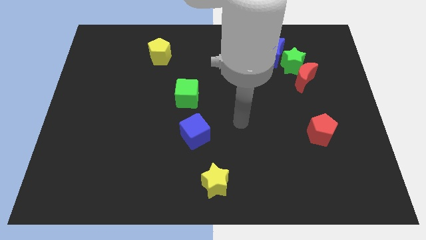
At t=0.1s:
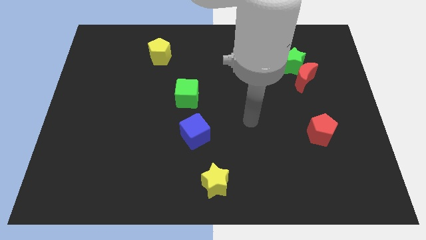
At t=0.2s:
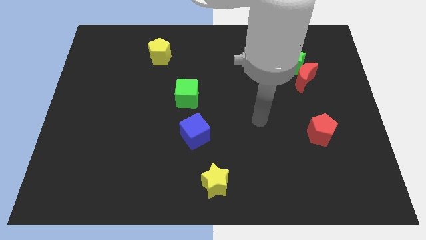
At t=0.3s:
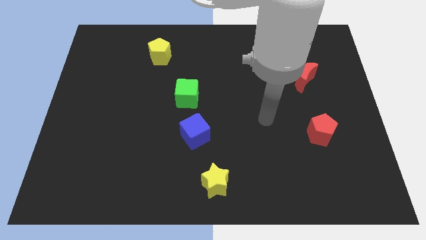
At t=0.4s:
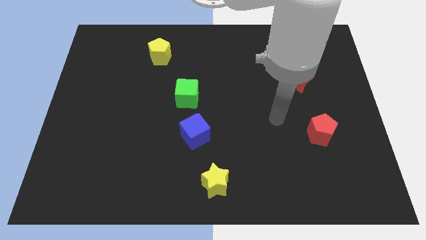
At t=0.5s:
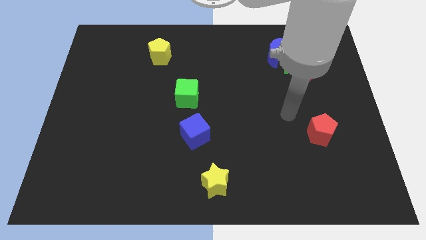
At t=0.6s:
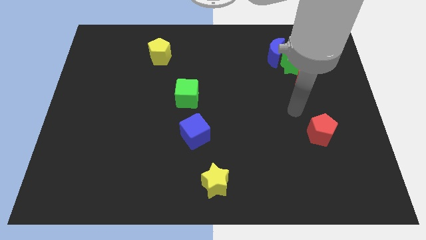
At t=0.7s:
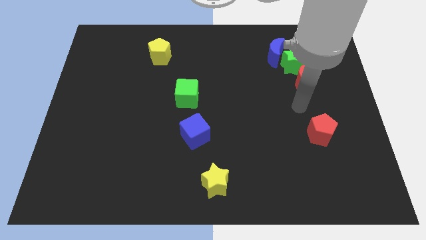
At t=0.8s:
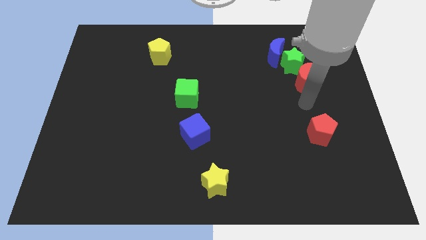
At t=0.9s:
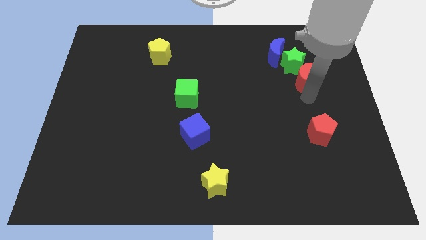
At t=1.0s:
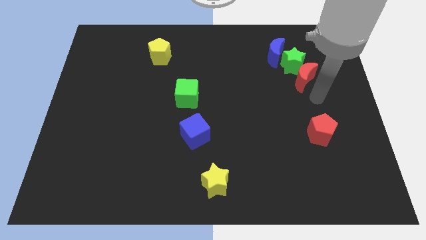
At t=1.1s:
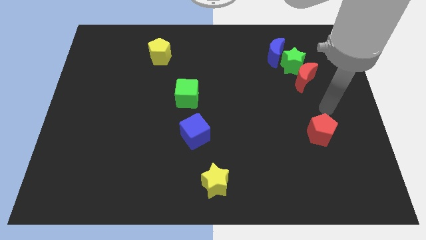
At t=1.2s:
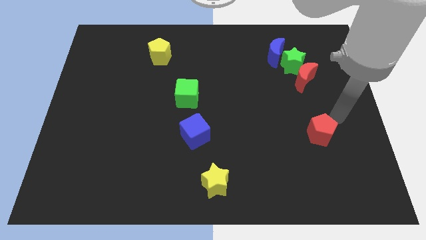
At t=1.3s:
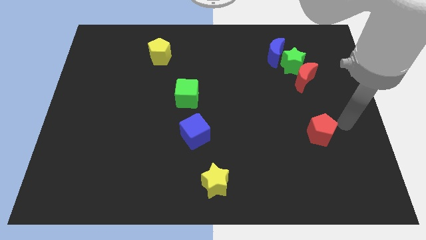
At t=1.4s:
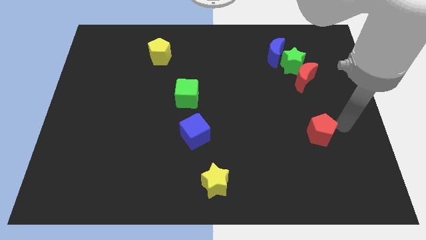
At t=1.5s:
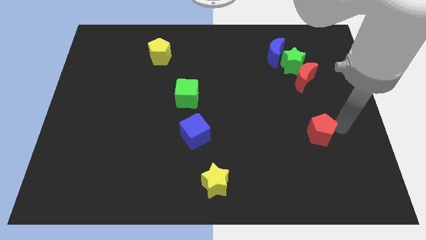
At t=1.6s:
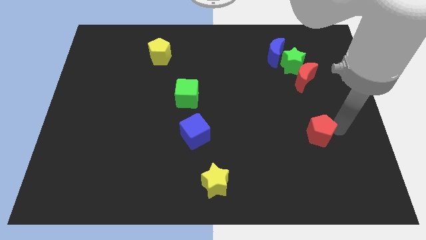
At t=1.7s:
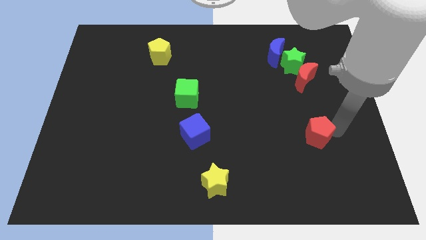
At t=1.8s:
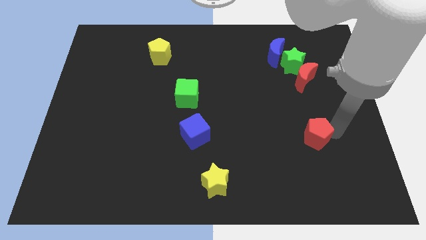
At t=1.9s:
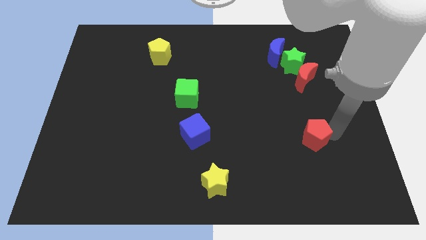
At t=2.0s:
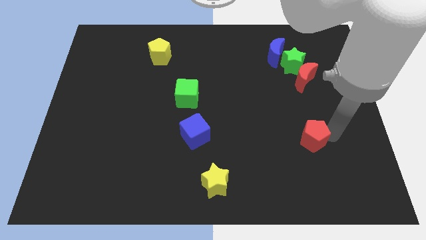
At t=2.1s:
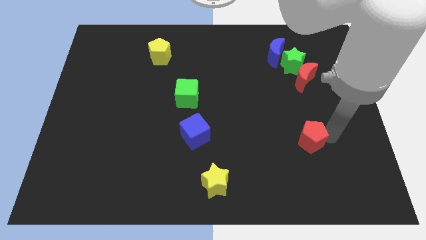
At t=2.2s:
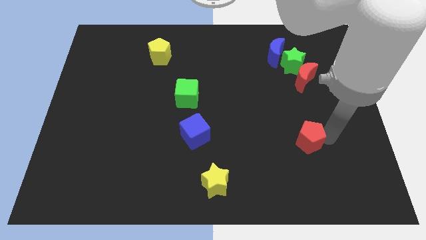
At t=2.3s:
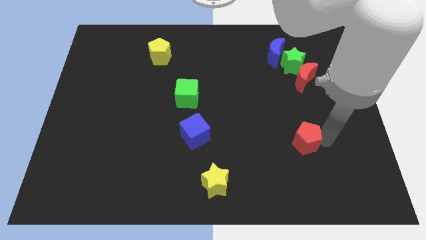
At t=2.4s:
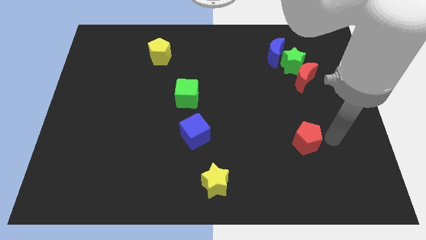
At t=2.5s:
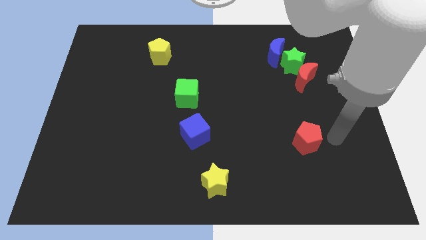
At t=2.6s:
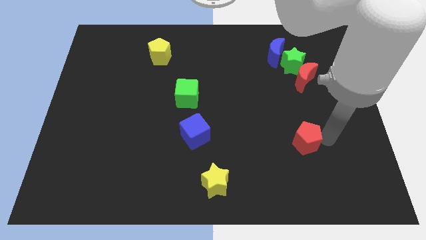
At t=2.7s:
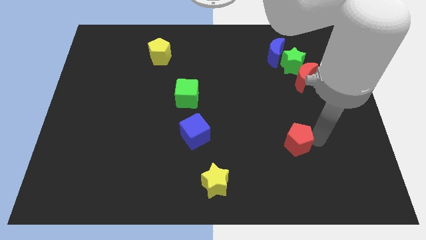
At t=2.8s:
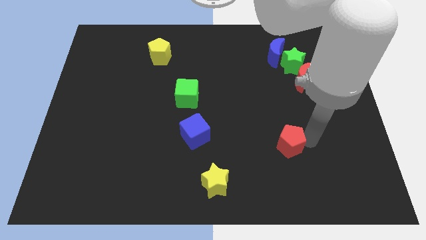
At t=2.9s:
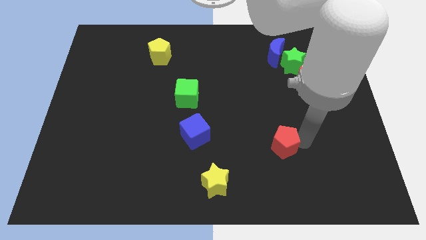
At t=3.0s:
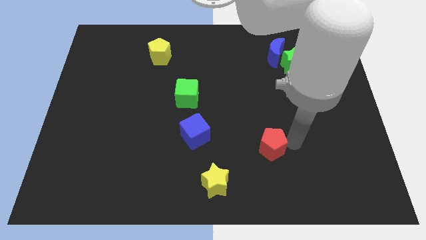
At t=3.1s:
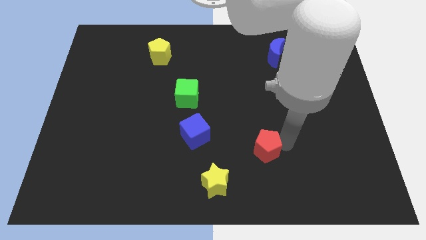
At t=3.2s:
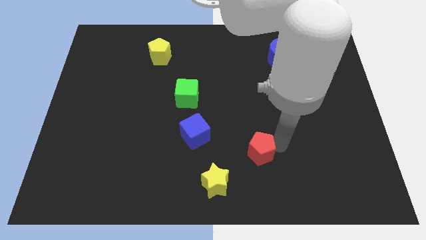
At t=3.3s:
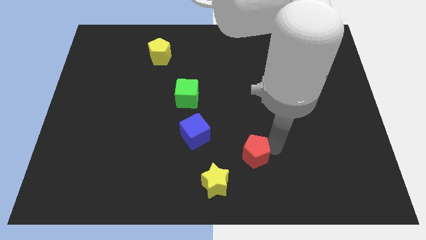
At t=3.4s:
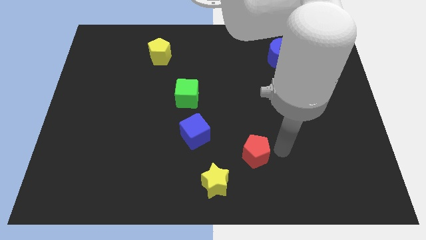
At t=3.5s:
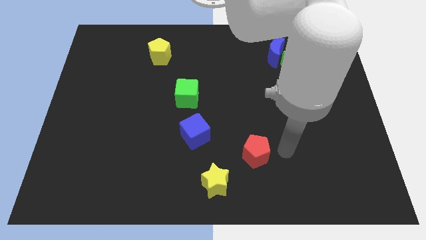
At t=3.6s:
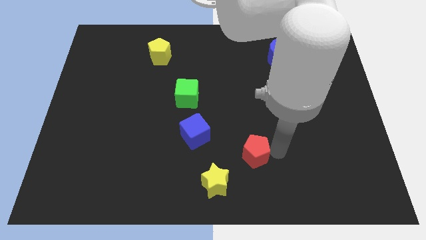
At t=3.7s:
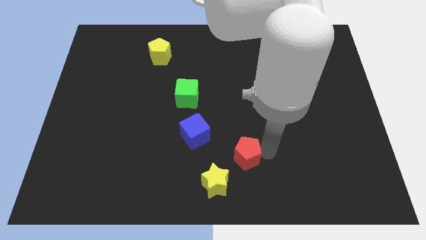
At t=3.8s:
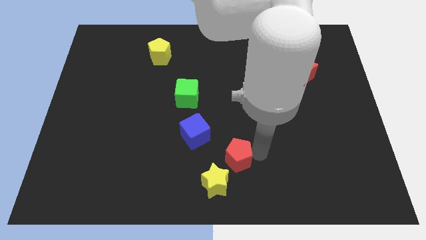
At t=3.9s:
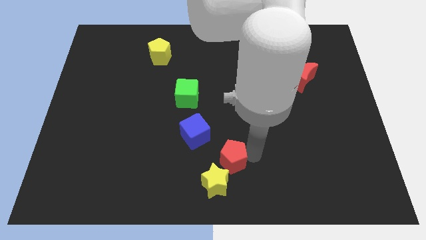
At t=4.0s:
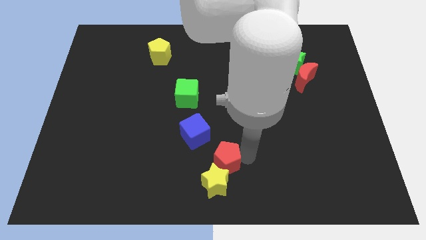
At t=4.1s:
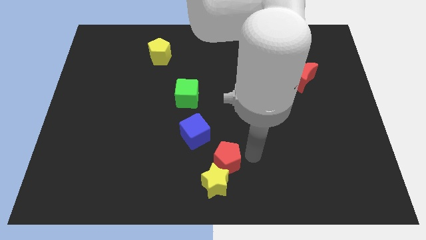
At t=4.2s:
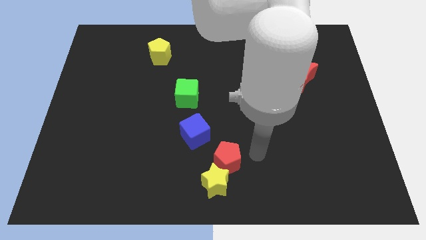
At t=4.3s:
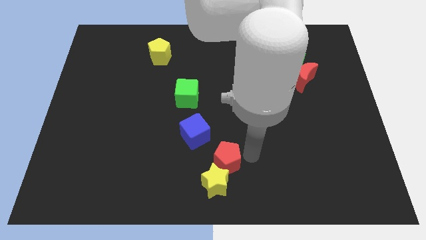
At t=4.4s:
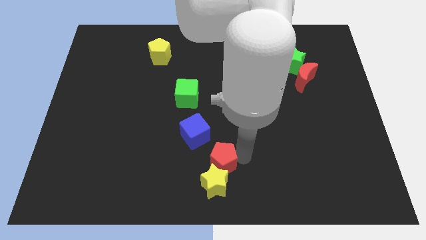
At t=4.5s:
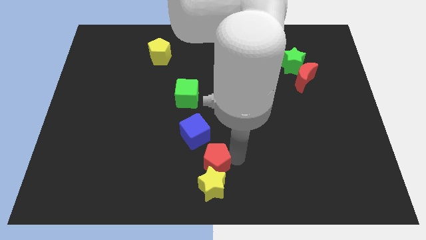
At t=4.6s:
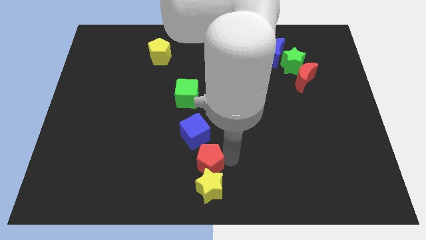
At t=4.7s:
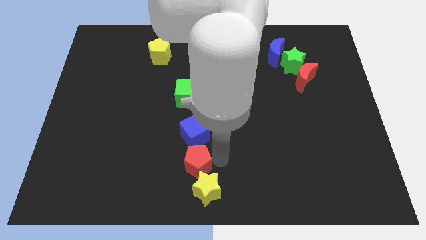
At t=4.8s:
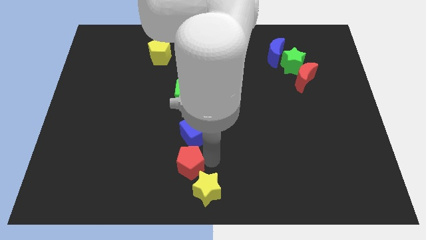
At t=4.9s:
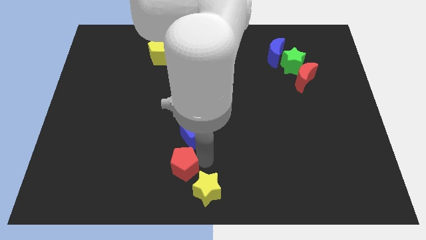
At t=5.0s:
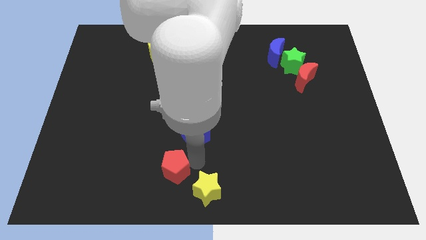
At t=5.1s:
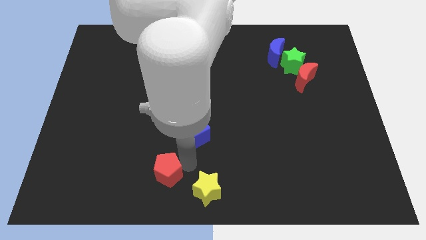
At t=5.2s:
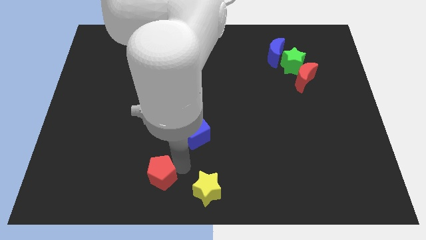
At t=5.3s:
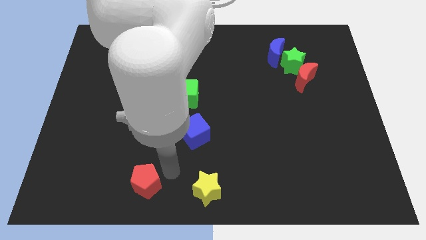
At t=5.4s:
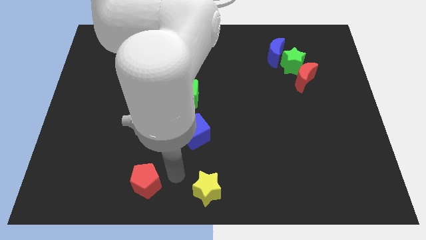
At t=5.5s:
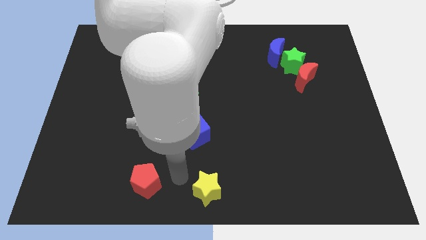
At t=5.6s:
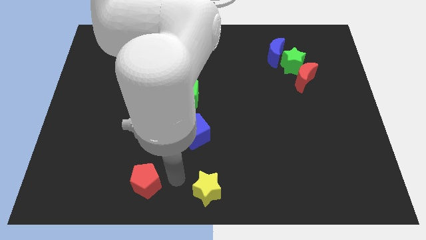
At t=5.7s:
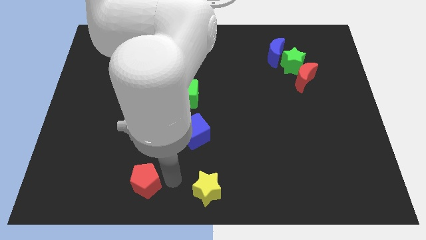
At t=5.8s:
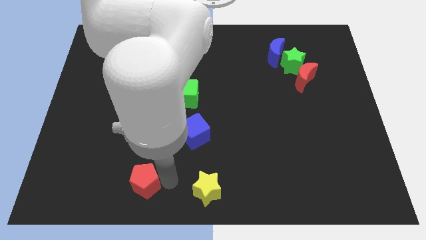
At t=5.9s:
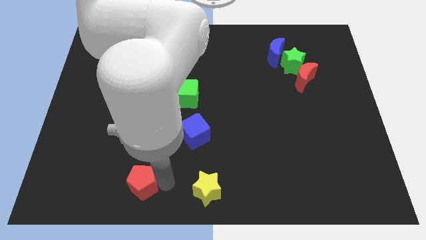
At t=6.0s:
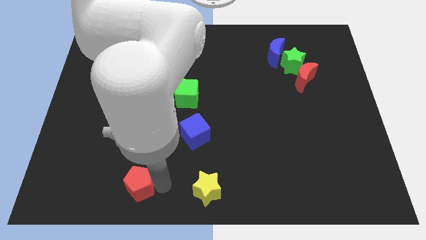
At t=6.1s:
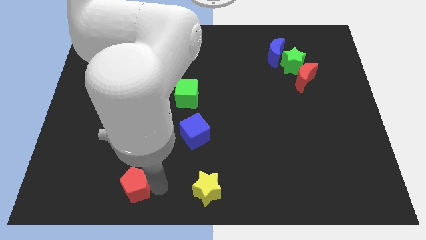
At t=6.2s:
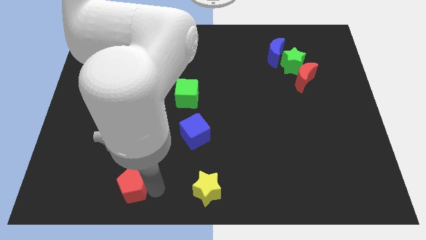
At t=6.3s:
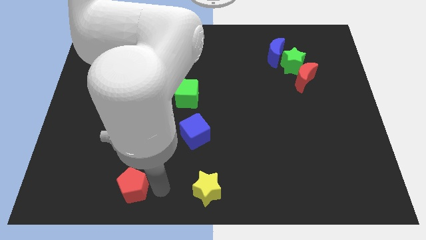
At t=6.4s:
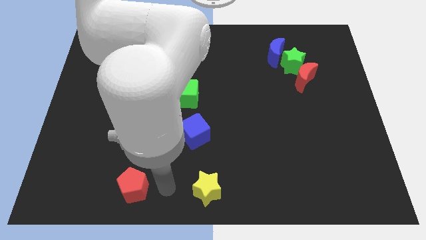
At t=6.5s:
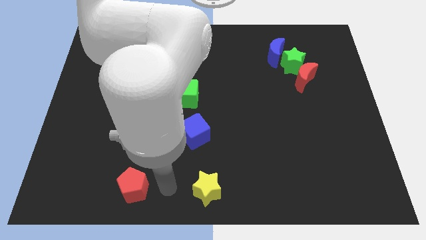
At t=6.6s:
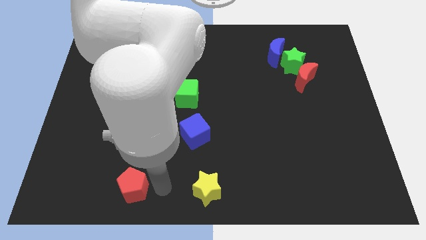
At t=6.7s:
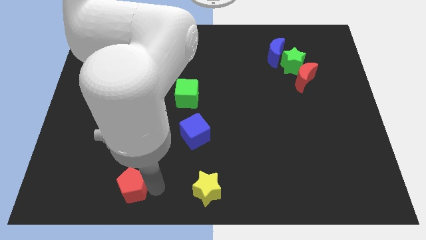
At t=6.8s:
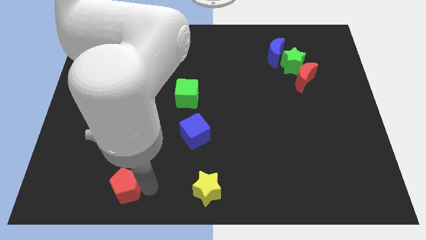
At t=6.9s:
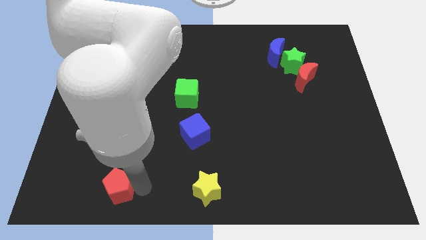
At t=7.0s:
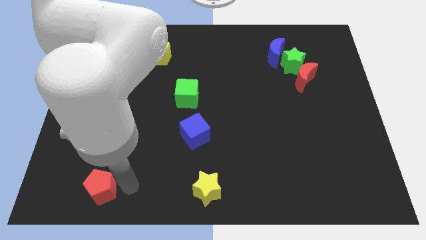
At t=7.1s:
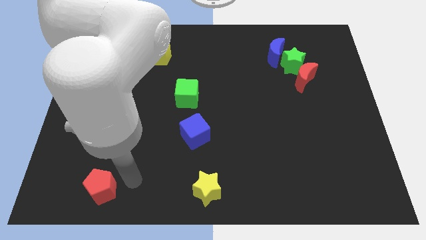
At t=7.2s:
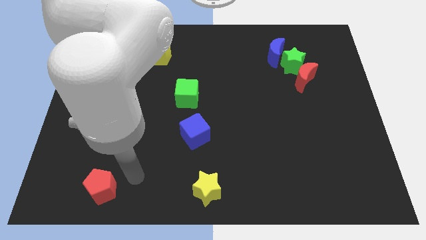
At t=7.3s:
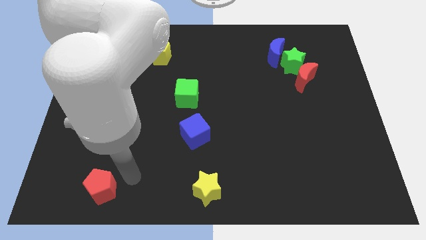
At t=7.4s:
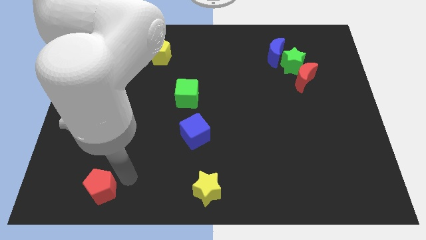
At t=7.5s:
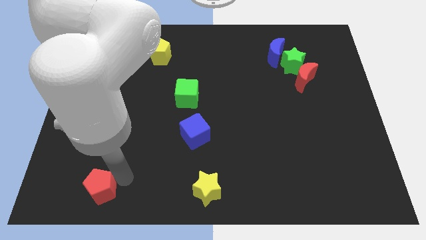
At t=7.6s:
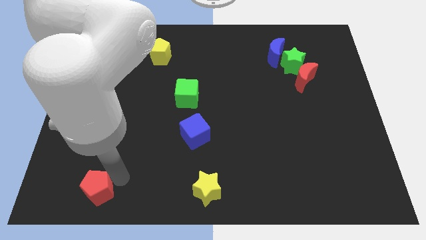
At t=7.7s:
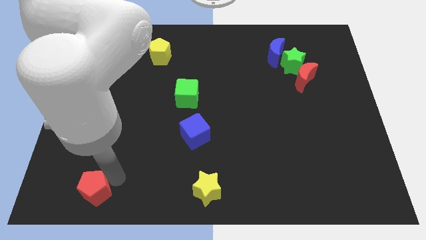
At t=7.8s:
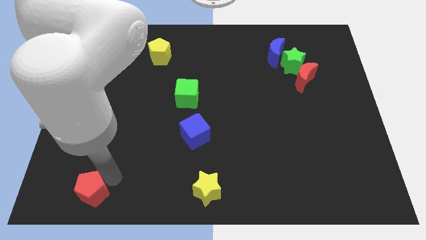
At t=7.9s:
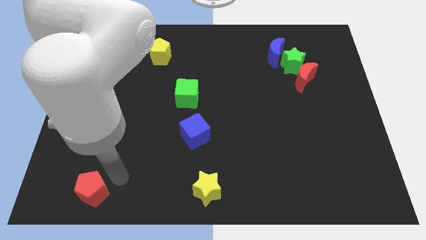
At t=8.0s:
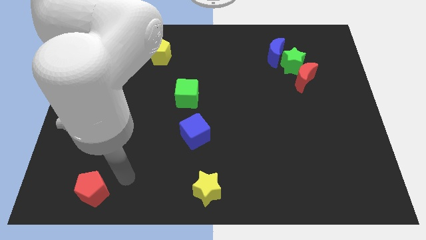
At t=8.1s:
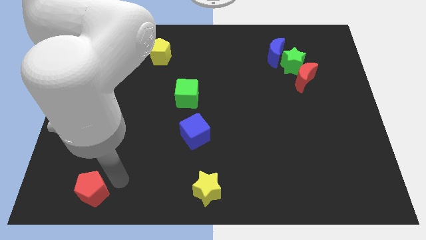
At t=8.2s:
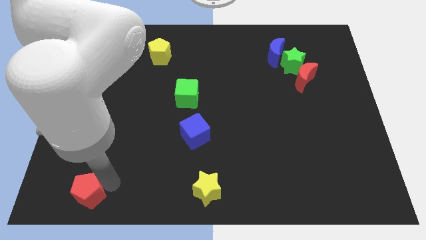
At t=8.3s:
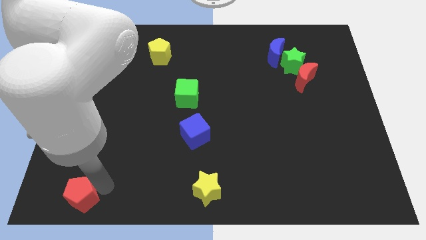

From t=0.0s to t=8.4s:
put the red pentagon to the bottom left of the board
